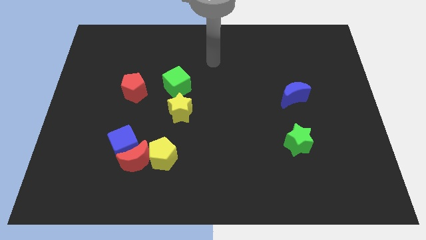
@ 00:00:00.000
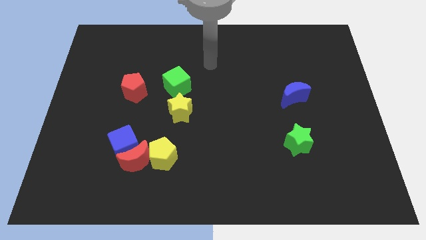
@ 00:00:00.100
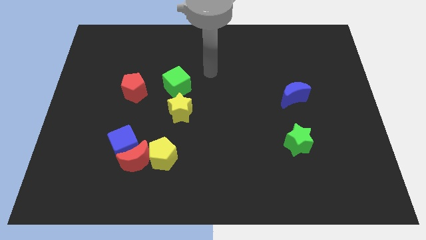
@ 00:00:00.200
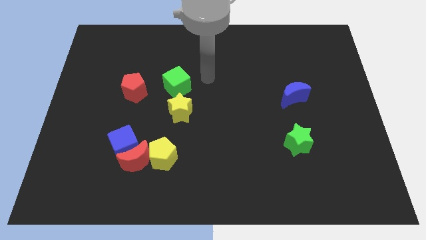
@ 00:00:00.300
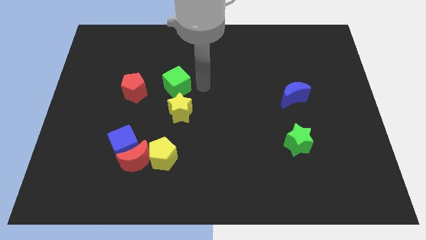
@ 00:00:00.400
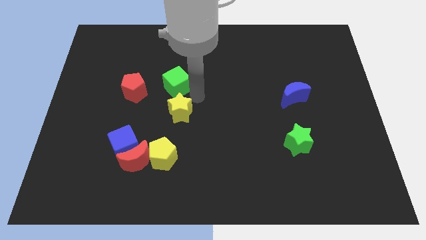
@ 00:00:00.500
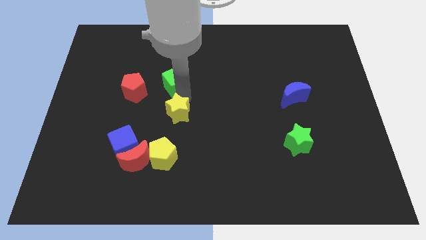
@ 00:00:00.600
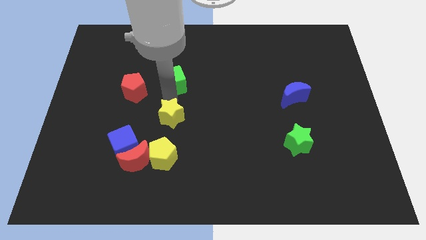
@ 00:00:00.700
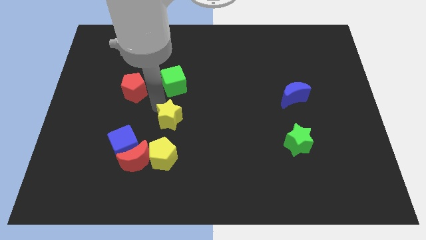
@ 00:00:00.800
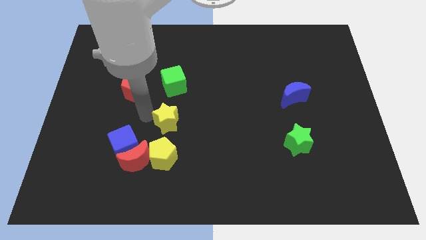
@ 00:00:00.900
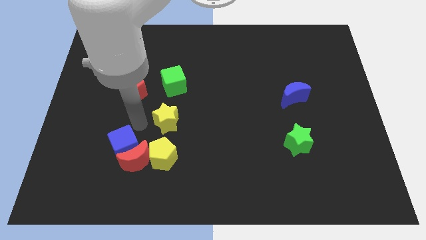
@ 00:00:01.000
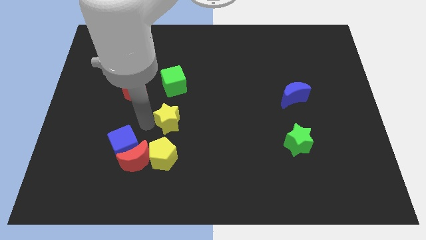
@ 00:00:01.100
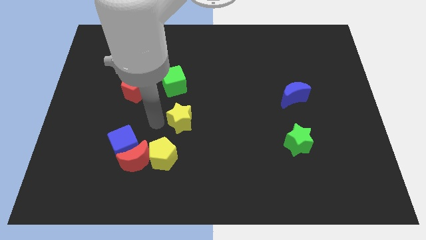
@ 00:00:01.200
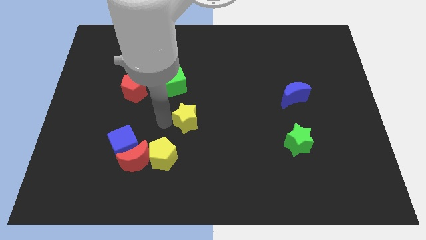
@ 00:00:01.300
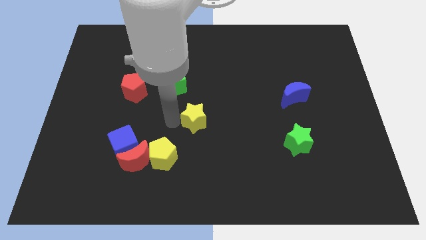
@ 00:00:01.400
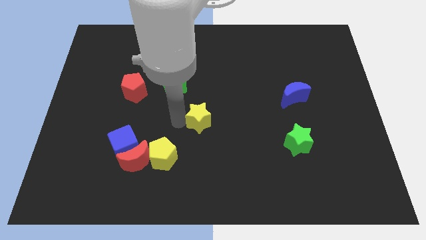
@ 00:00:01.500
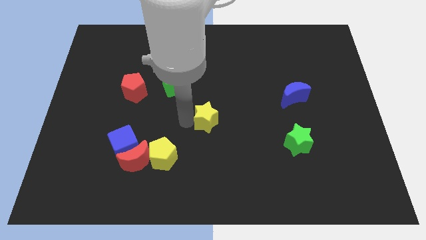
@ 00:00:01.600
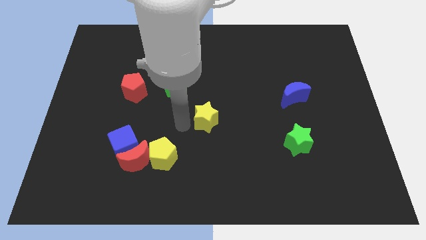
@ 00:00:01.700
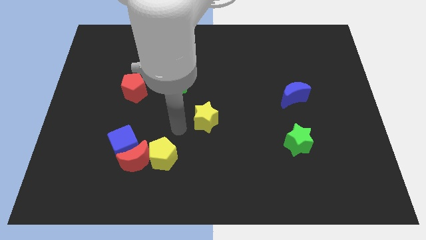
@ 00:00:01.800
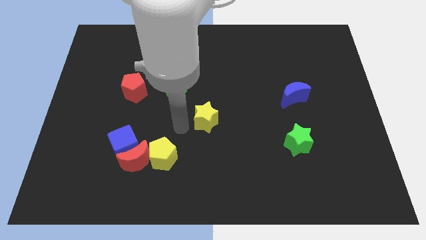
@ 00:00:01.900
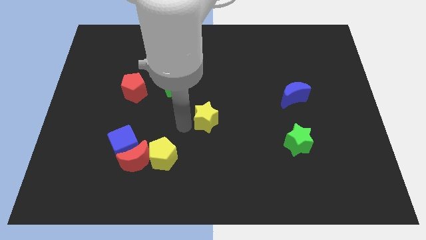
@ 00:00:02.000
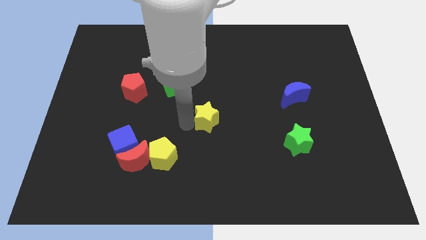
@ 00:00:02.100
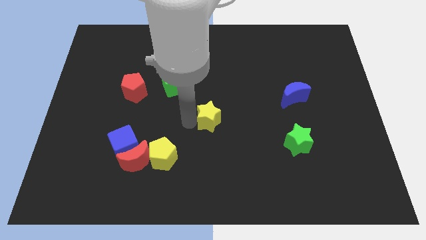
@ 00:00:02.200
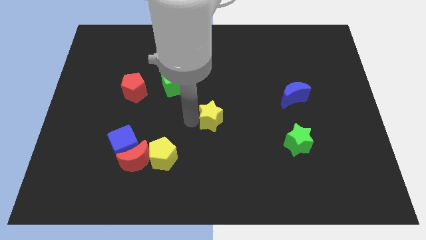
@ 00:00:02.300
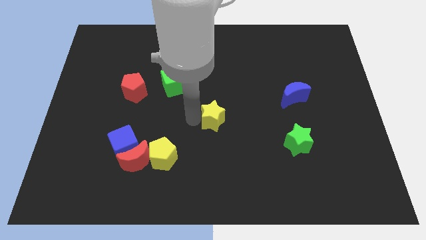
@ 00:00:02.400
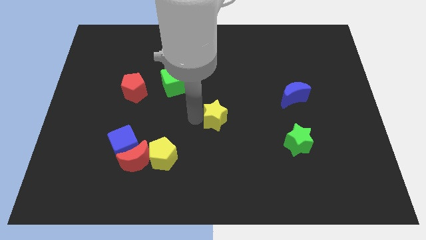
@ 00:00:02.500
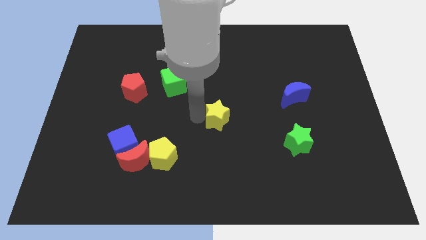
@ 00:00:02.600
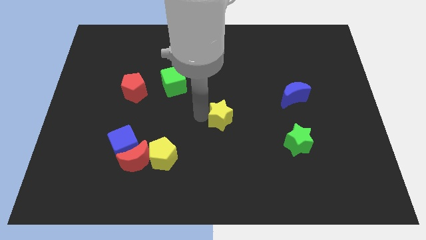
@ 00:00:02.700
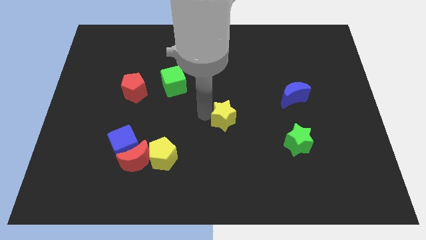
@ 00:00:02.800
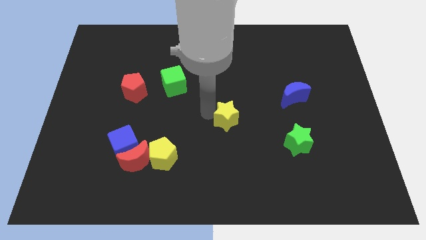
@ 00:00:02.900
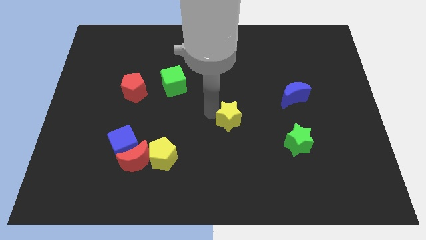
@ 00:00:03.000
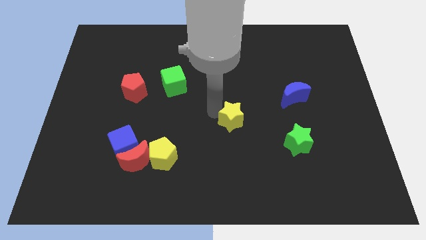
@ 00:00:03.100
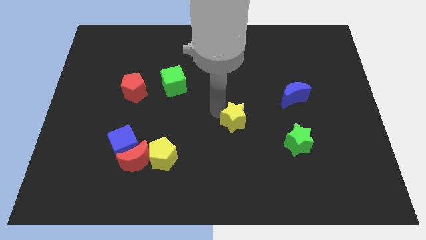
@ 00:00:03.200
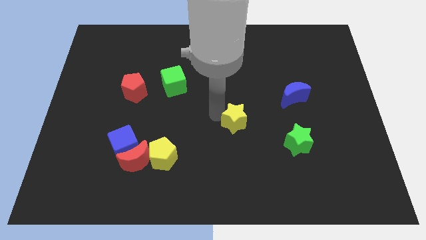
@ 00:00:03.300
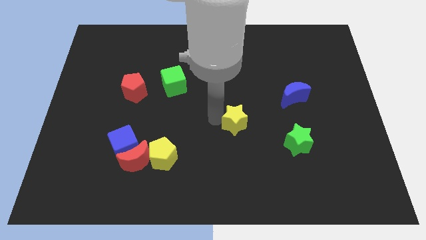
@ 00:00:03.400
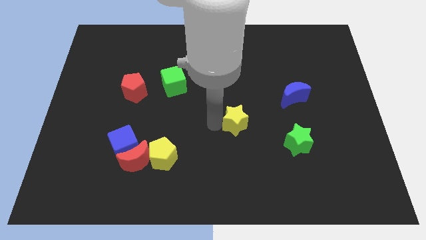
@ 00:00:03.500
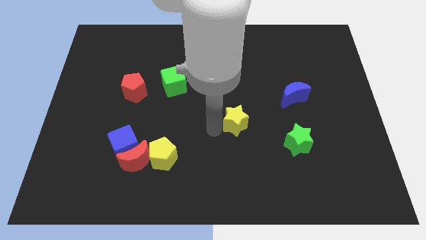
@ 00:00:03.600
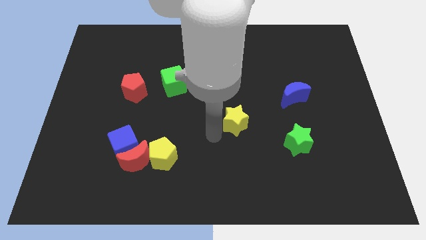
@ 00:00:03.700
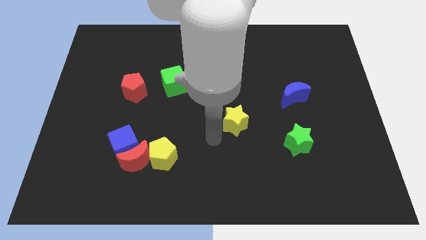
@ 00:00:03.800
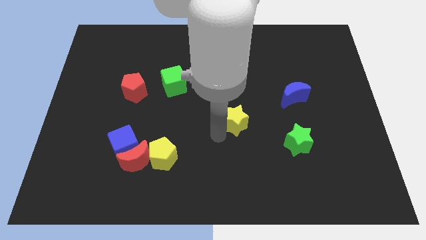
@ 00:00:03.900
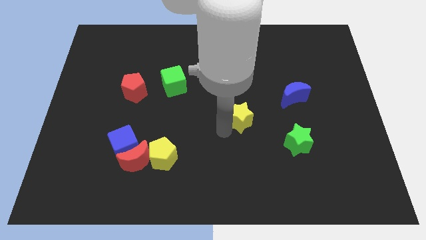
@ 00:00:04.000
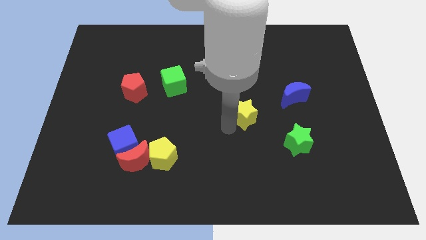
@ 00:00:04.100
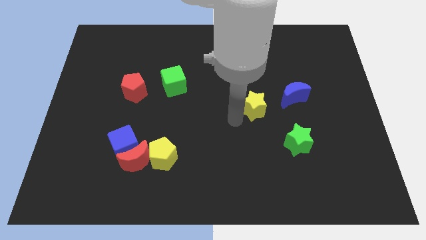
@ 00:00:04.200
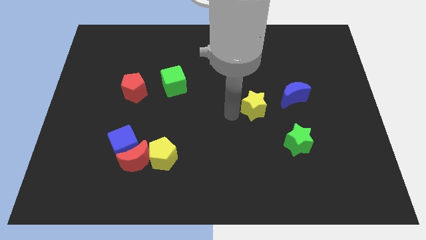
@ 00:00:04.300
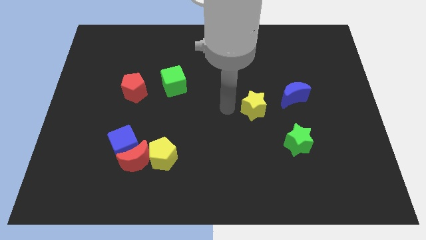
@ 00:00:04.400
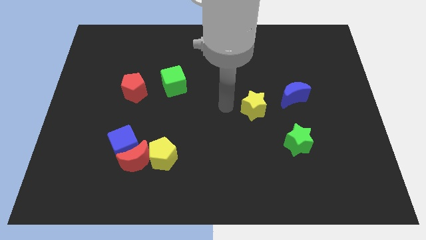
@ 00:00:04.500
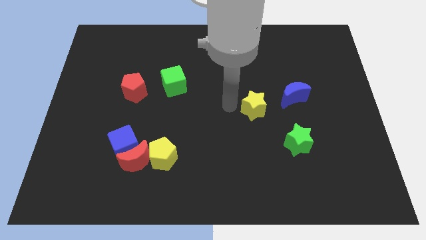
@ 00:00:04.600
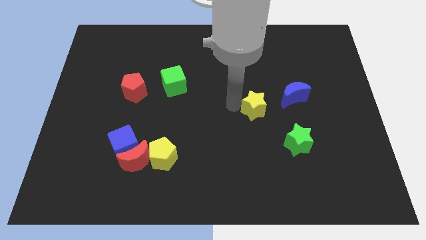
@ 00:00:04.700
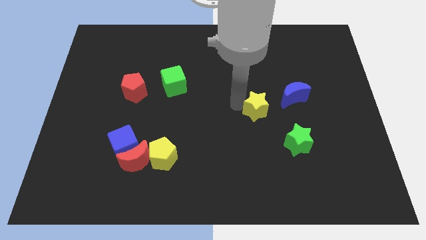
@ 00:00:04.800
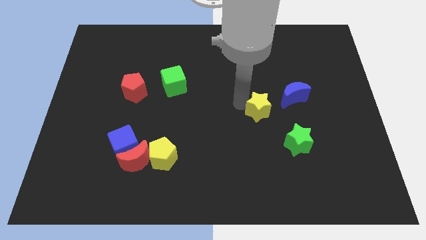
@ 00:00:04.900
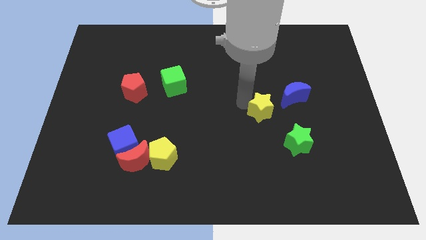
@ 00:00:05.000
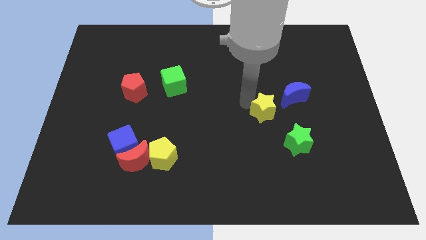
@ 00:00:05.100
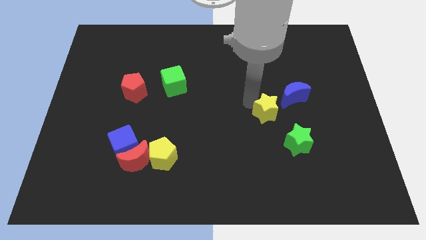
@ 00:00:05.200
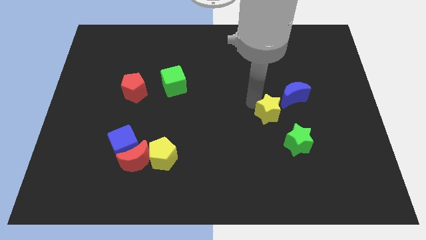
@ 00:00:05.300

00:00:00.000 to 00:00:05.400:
push the yellow star to the right

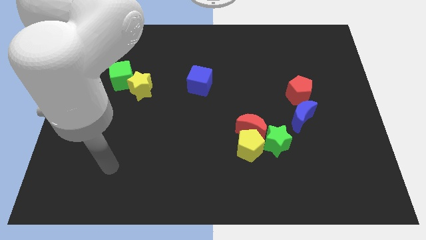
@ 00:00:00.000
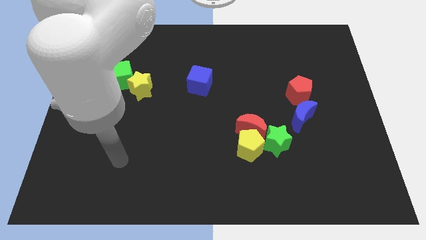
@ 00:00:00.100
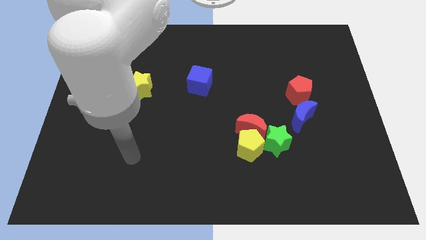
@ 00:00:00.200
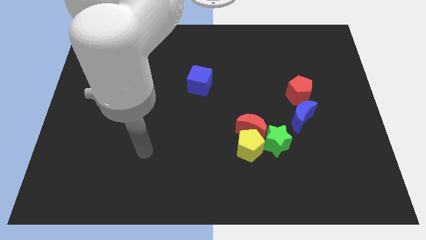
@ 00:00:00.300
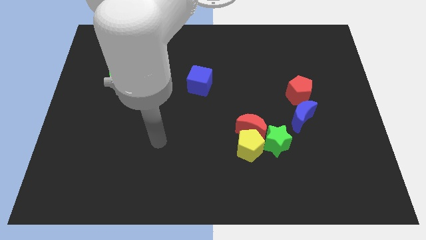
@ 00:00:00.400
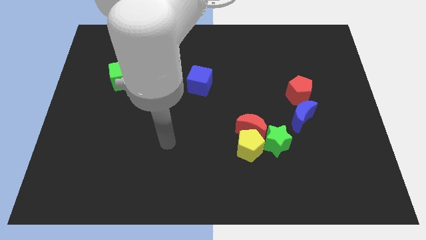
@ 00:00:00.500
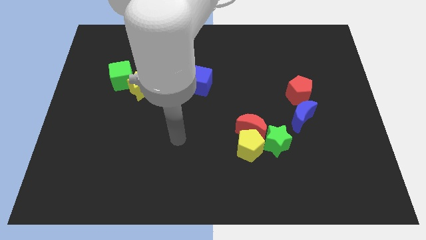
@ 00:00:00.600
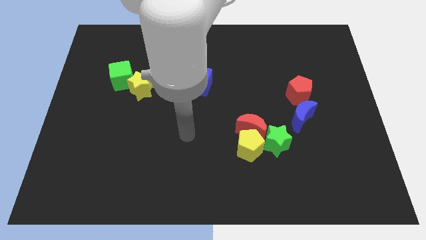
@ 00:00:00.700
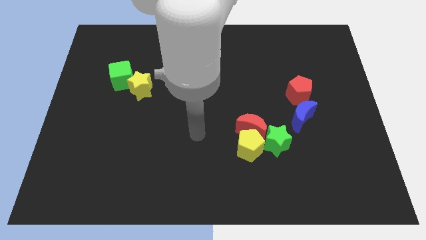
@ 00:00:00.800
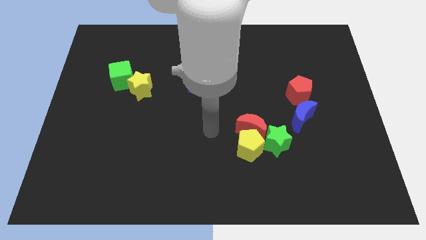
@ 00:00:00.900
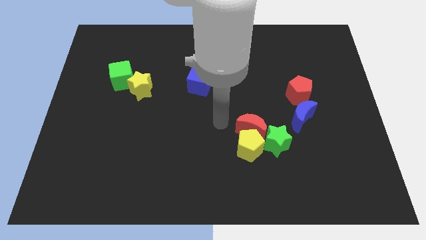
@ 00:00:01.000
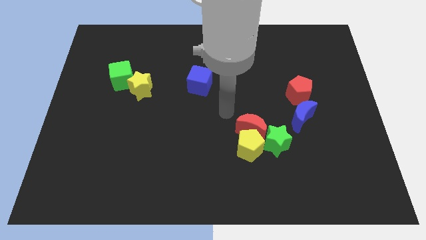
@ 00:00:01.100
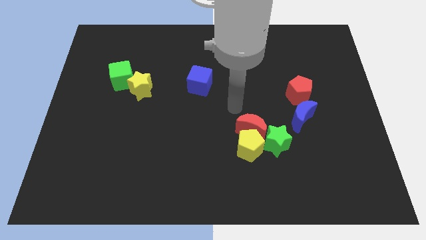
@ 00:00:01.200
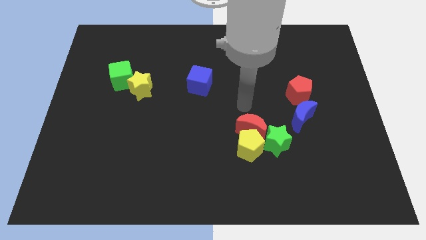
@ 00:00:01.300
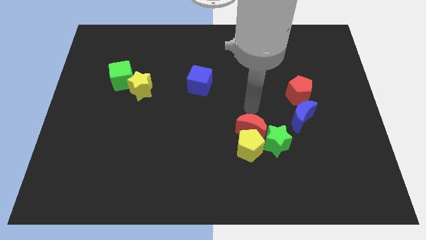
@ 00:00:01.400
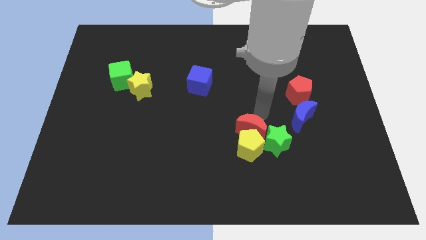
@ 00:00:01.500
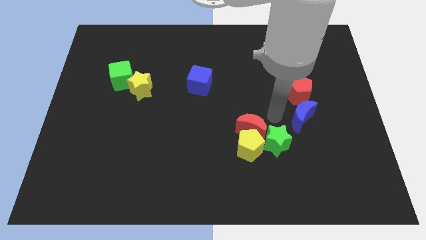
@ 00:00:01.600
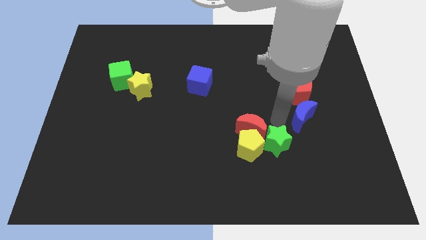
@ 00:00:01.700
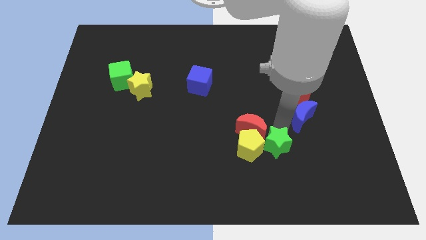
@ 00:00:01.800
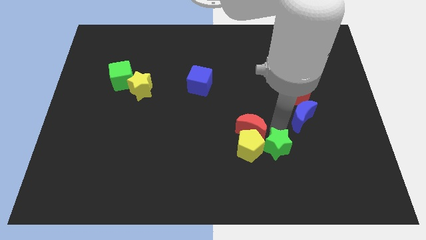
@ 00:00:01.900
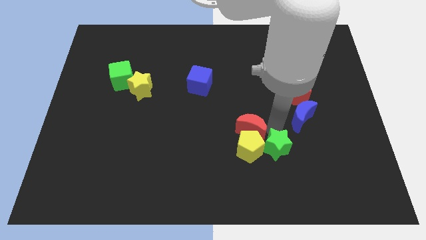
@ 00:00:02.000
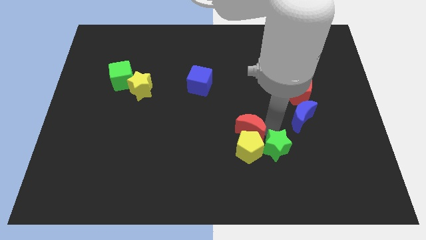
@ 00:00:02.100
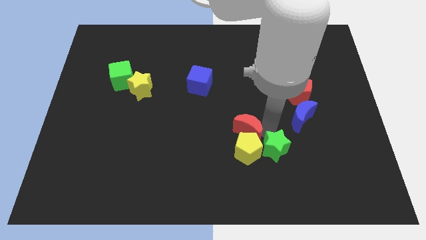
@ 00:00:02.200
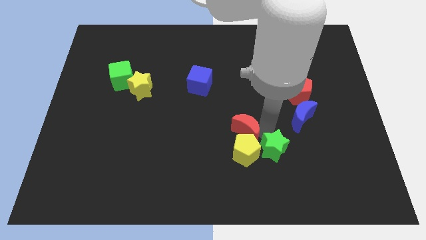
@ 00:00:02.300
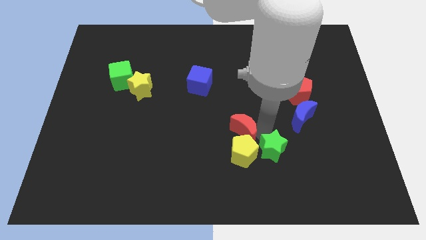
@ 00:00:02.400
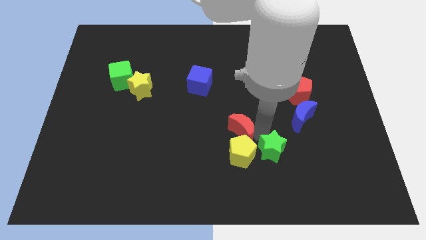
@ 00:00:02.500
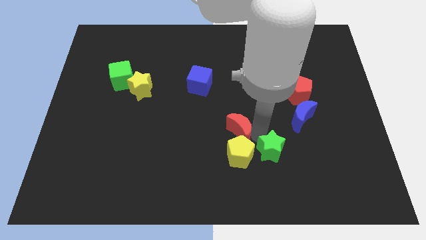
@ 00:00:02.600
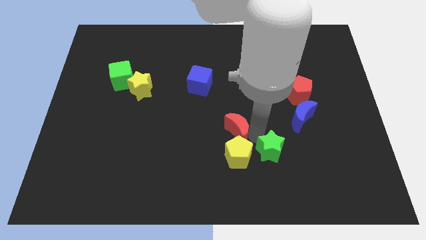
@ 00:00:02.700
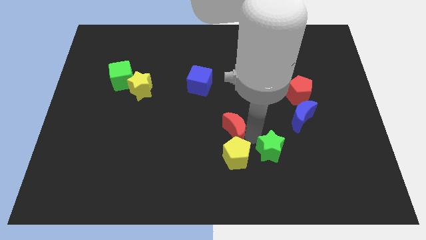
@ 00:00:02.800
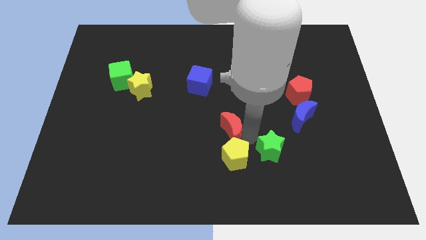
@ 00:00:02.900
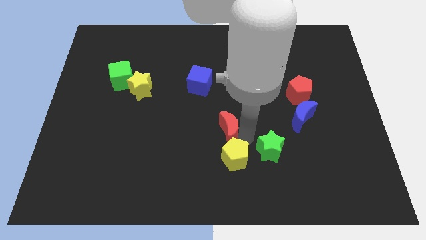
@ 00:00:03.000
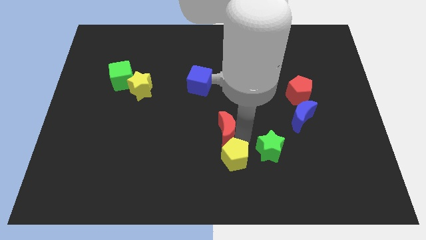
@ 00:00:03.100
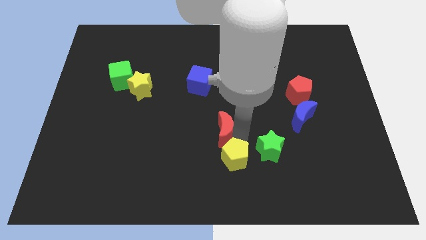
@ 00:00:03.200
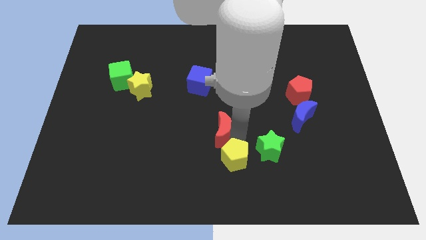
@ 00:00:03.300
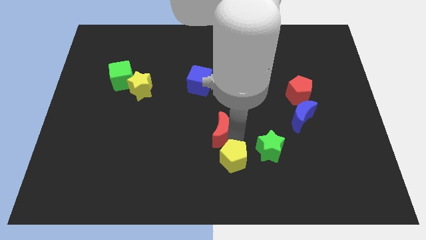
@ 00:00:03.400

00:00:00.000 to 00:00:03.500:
slightly push the red moon to the left
